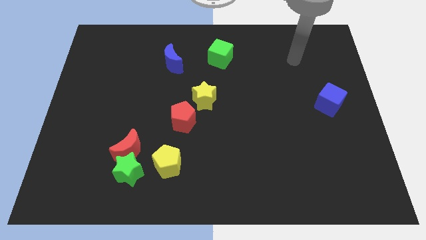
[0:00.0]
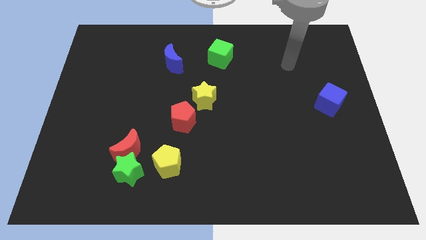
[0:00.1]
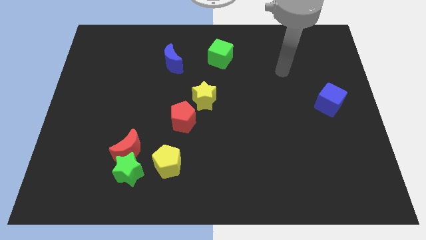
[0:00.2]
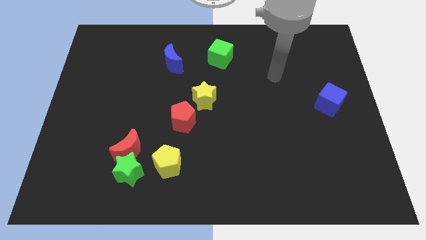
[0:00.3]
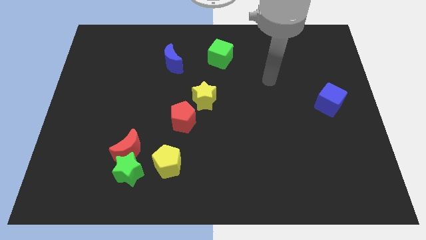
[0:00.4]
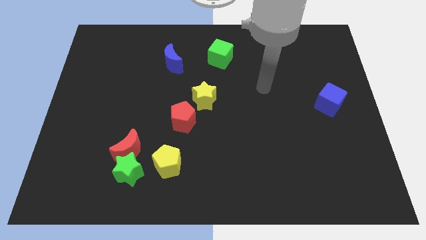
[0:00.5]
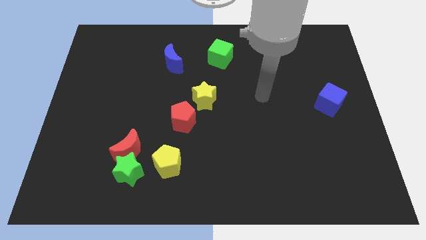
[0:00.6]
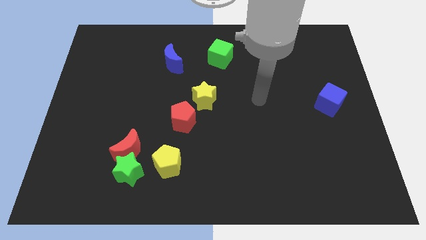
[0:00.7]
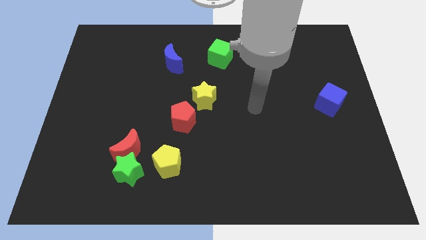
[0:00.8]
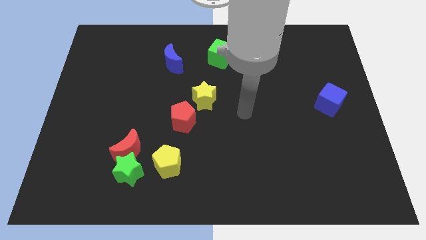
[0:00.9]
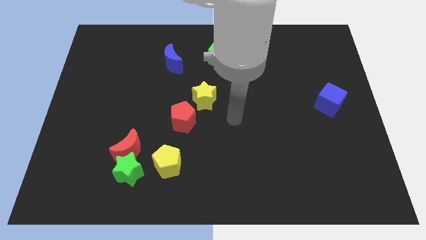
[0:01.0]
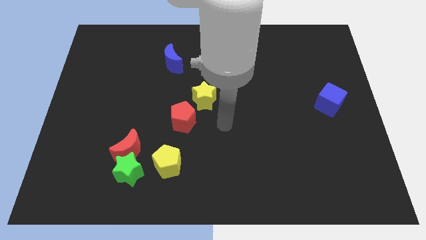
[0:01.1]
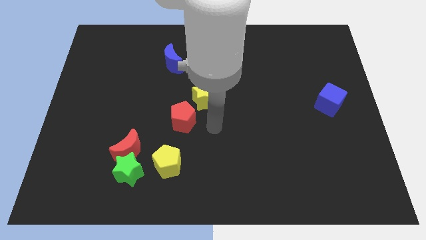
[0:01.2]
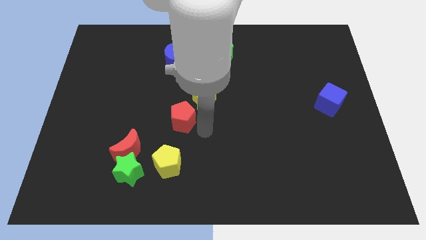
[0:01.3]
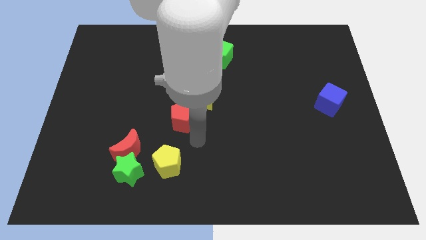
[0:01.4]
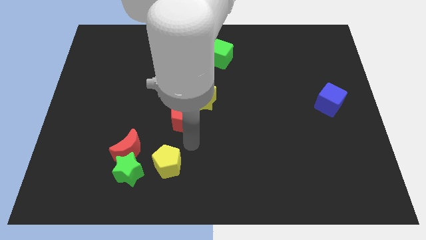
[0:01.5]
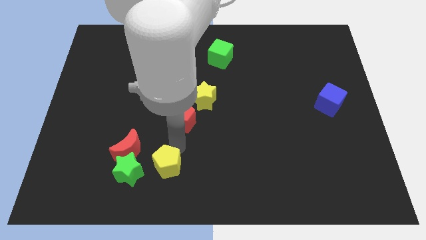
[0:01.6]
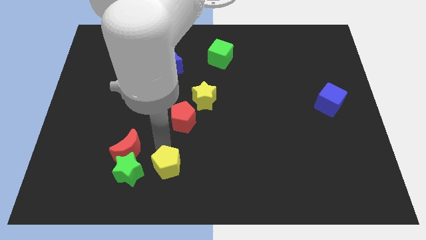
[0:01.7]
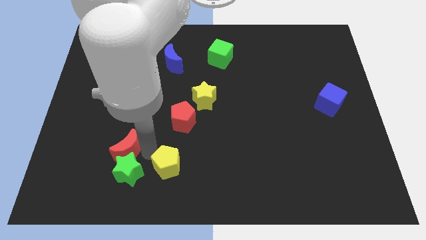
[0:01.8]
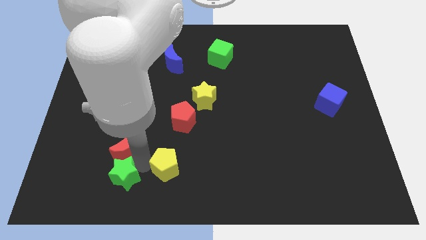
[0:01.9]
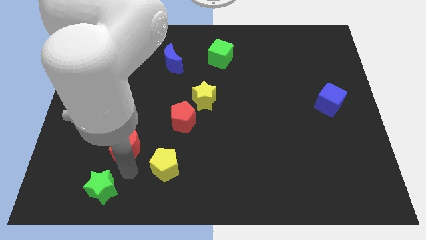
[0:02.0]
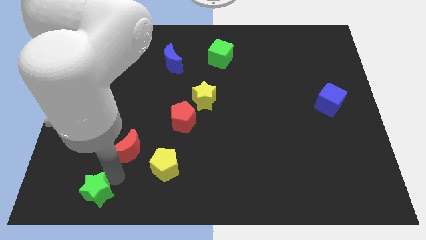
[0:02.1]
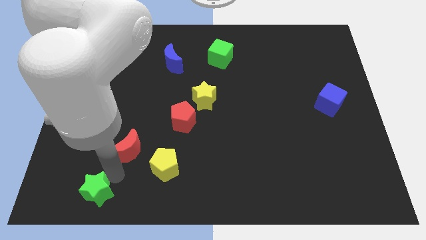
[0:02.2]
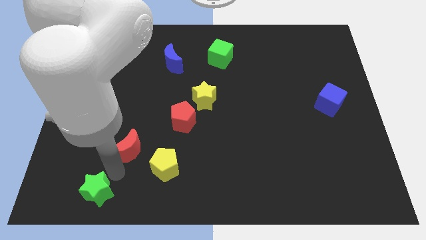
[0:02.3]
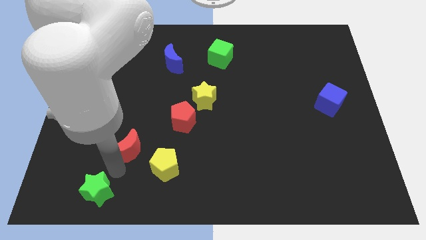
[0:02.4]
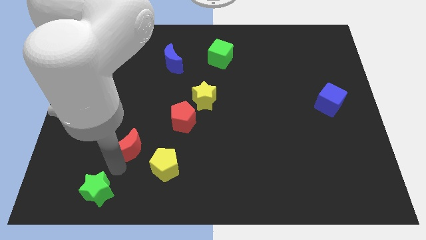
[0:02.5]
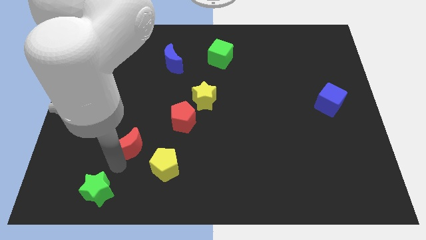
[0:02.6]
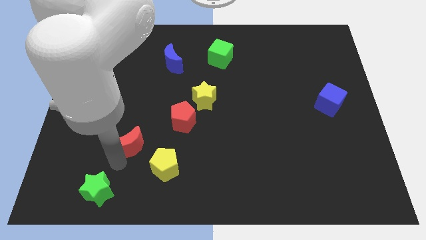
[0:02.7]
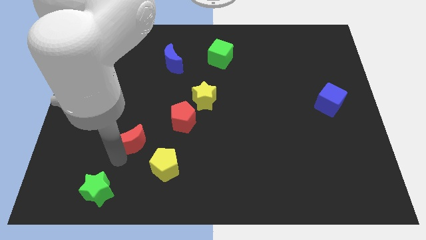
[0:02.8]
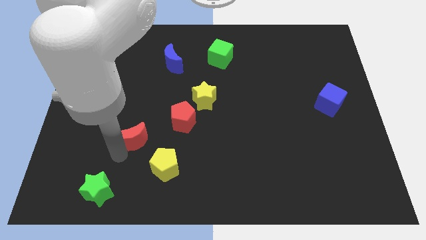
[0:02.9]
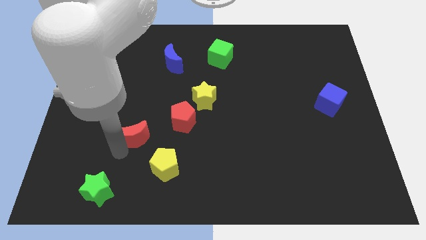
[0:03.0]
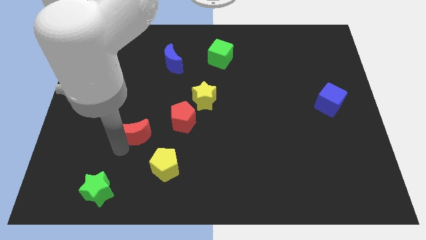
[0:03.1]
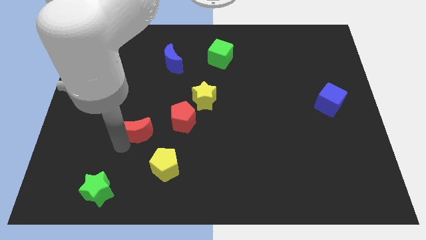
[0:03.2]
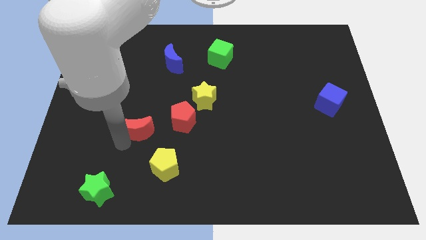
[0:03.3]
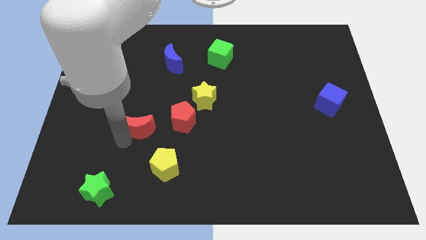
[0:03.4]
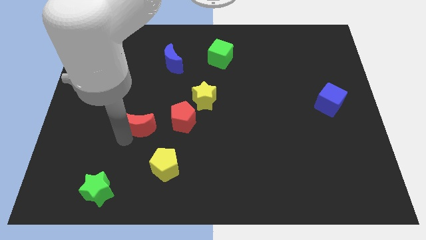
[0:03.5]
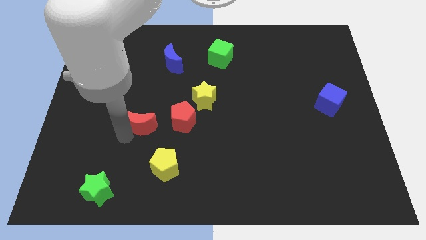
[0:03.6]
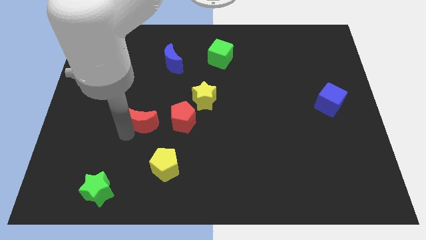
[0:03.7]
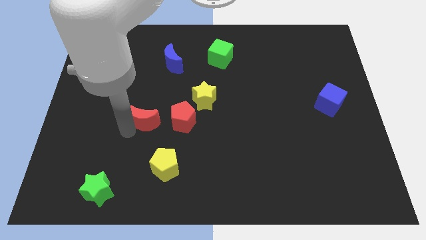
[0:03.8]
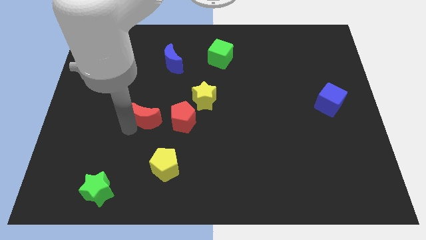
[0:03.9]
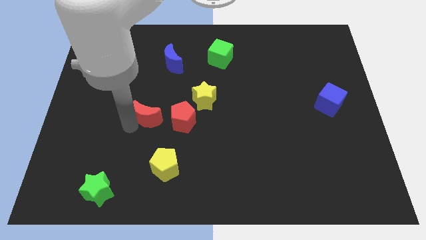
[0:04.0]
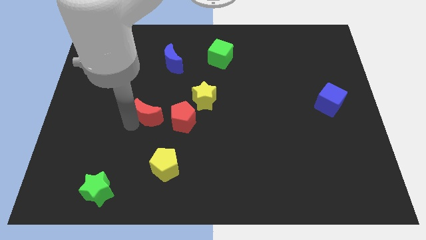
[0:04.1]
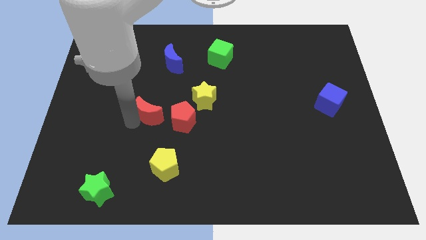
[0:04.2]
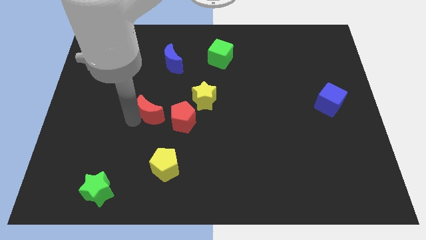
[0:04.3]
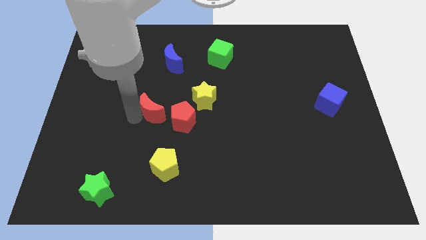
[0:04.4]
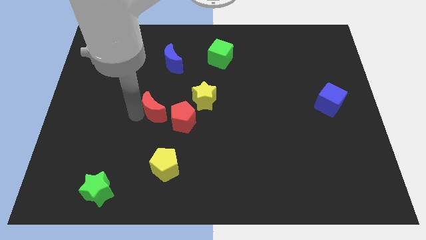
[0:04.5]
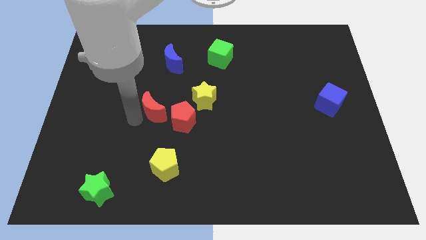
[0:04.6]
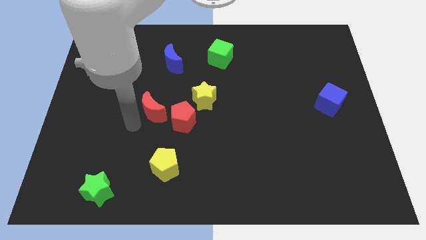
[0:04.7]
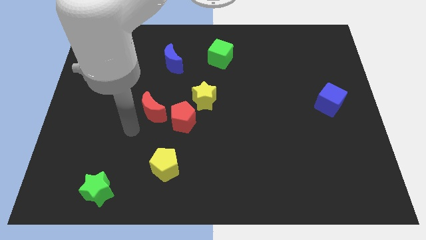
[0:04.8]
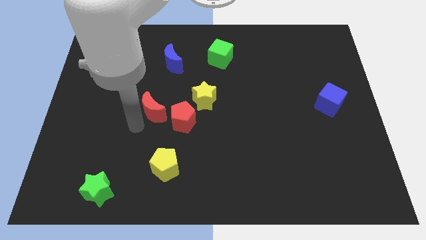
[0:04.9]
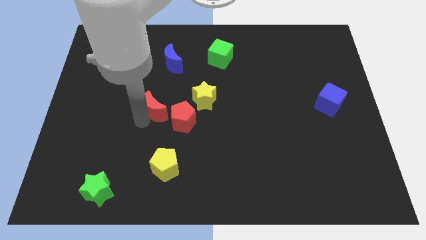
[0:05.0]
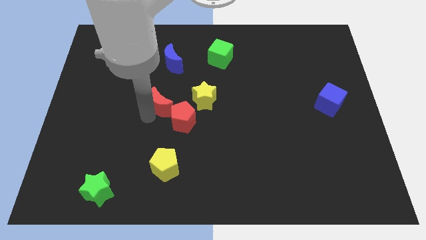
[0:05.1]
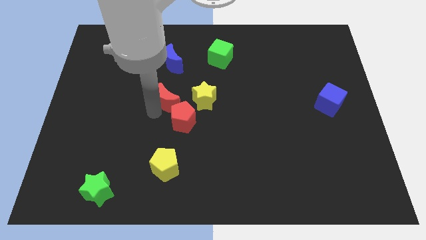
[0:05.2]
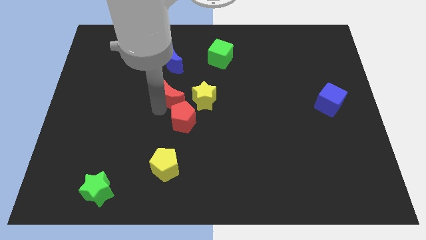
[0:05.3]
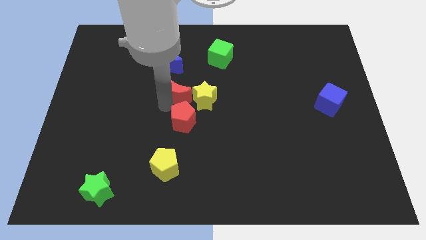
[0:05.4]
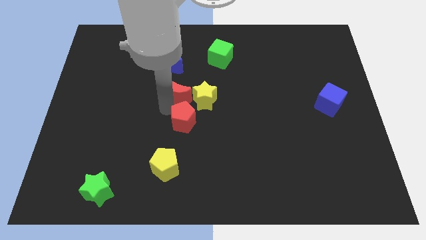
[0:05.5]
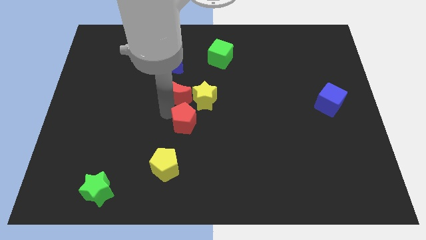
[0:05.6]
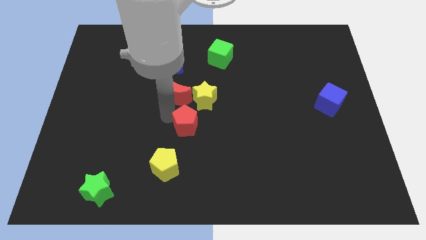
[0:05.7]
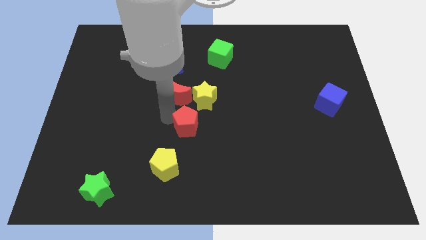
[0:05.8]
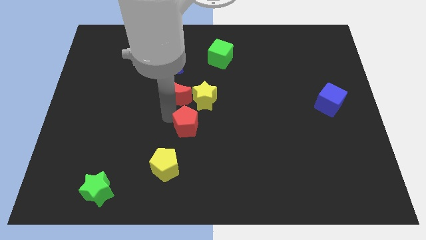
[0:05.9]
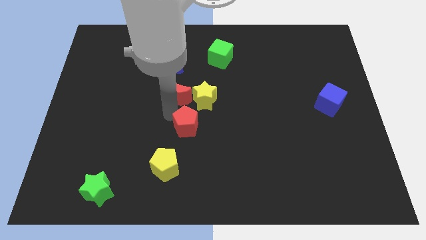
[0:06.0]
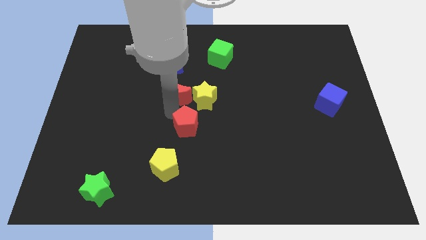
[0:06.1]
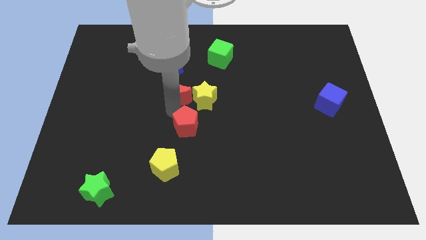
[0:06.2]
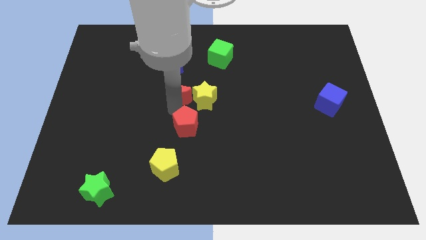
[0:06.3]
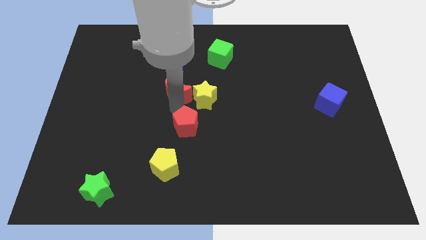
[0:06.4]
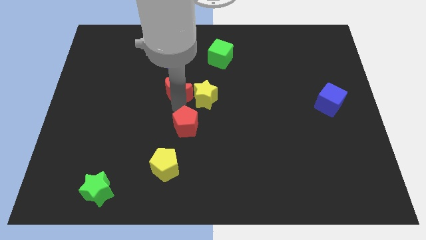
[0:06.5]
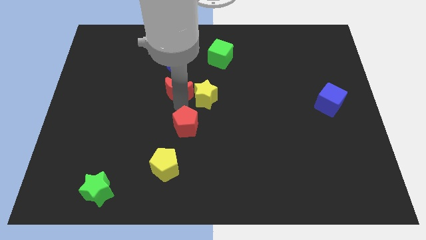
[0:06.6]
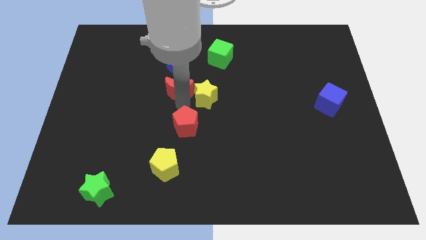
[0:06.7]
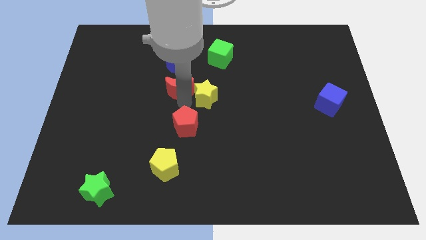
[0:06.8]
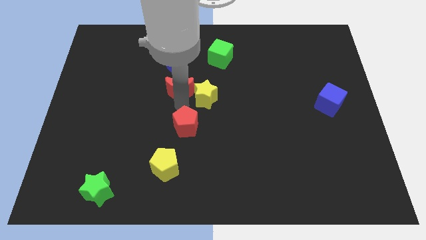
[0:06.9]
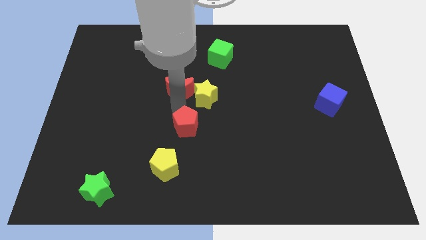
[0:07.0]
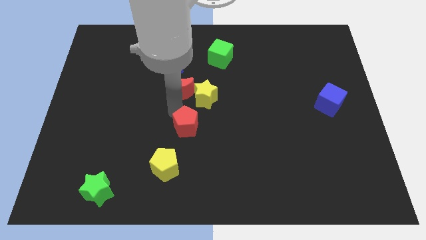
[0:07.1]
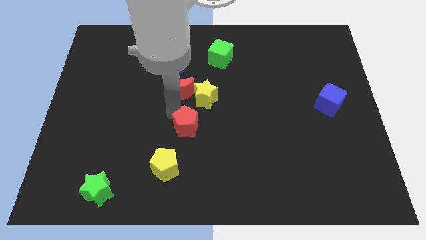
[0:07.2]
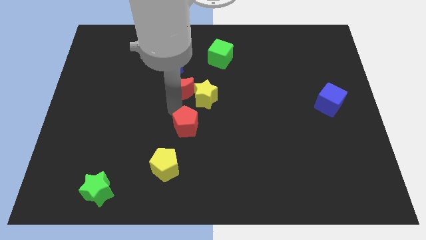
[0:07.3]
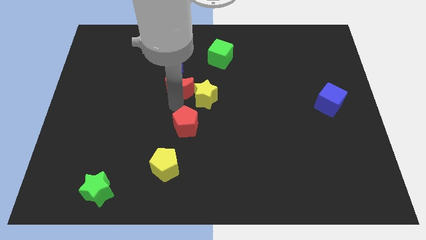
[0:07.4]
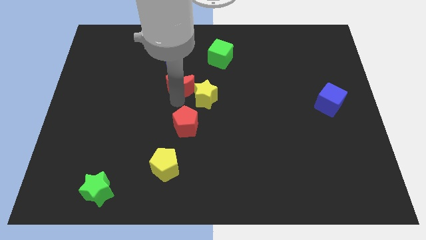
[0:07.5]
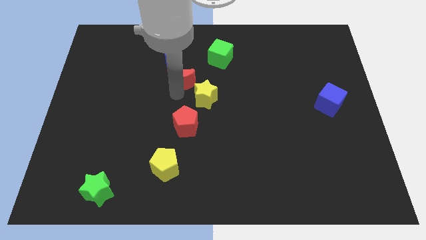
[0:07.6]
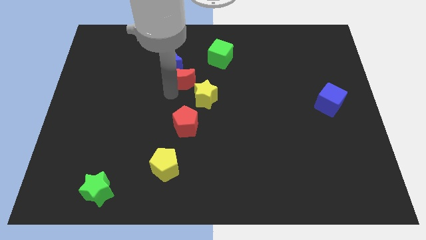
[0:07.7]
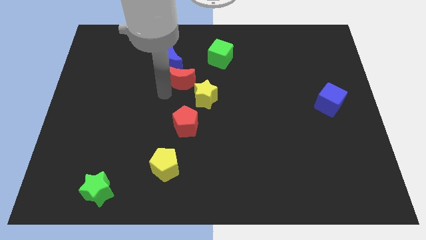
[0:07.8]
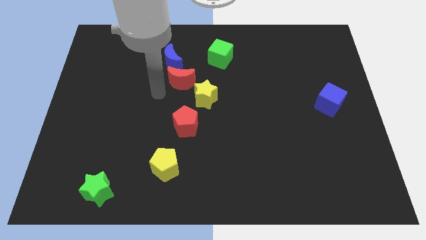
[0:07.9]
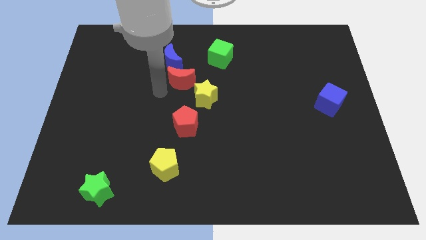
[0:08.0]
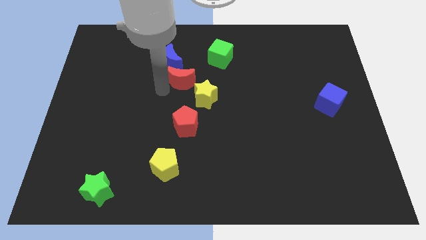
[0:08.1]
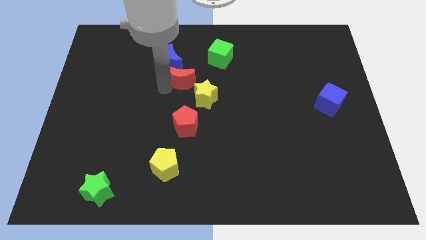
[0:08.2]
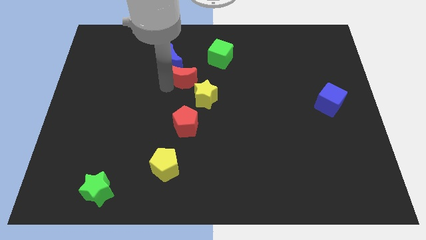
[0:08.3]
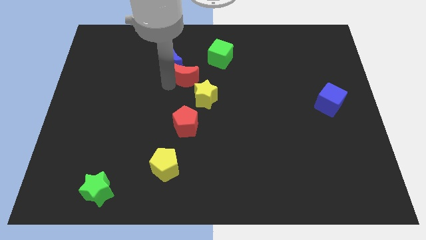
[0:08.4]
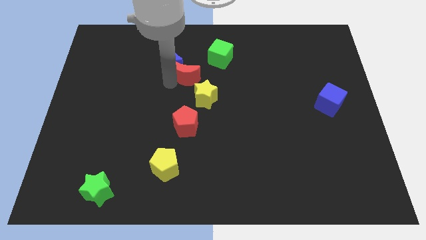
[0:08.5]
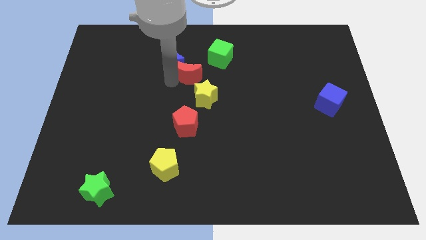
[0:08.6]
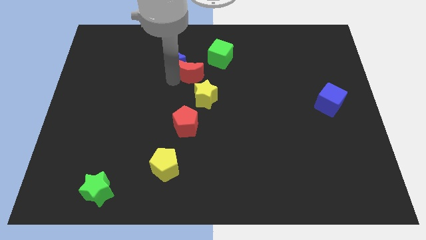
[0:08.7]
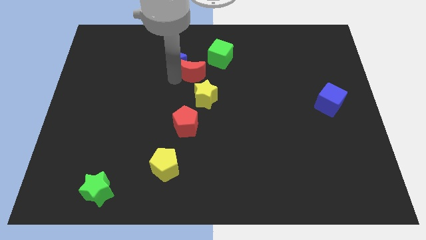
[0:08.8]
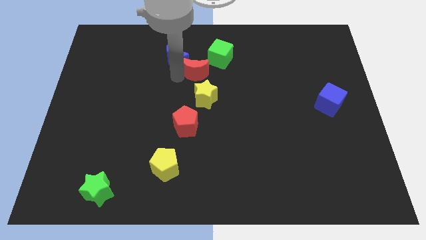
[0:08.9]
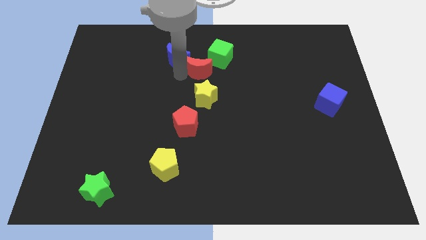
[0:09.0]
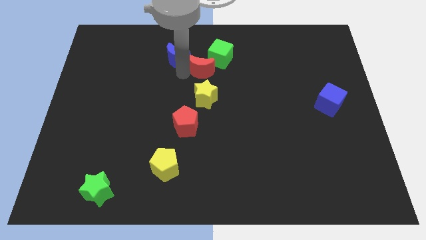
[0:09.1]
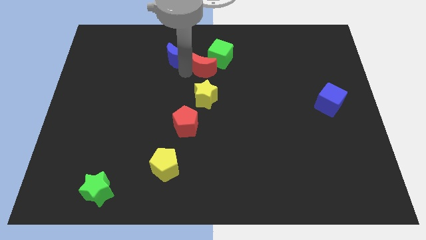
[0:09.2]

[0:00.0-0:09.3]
put the red moon close to the green cube
